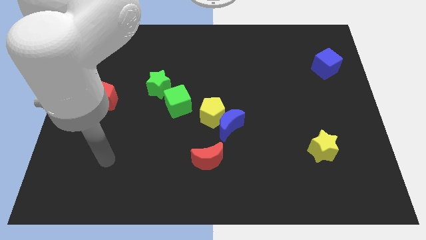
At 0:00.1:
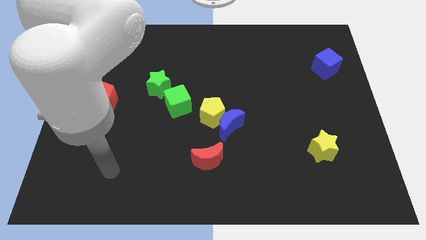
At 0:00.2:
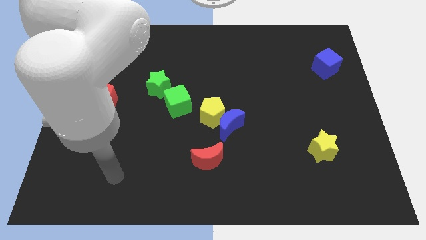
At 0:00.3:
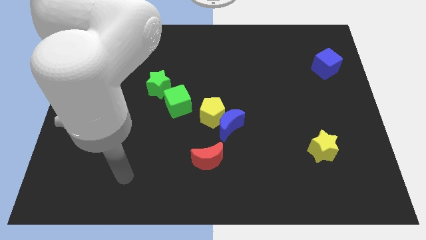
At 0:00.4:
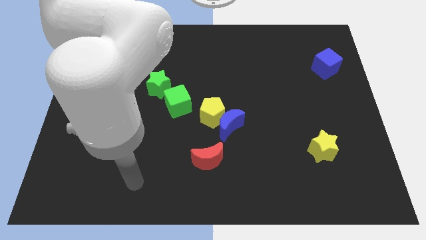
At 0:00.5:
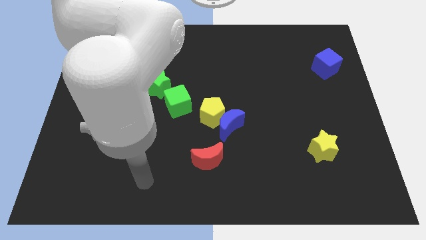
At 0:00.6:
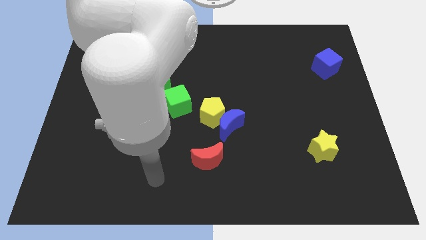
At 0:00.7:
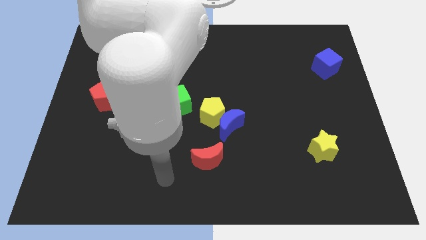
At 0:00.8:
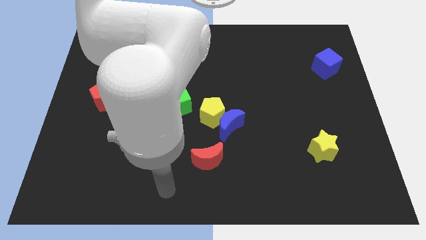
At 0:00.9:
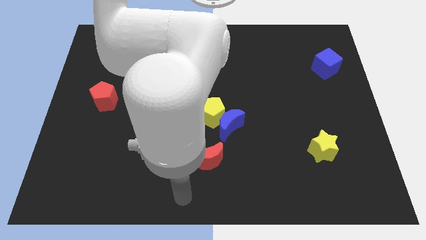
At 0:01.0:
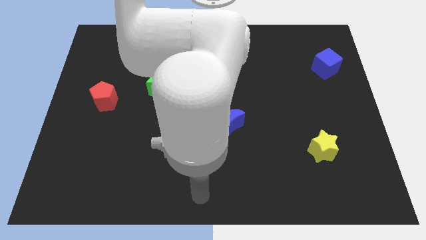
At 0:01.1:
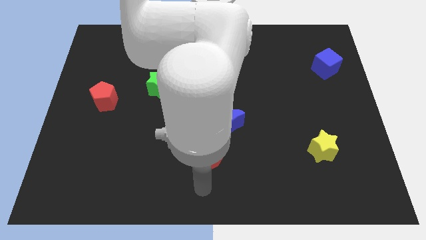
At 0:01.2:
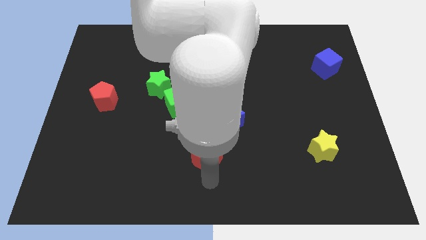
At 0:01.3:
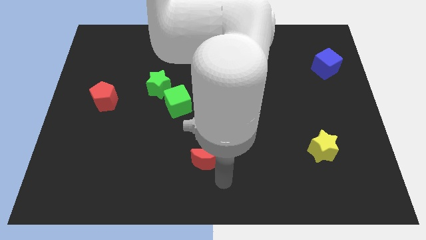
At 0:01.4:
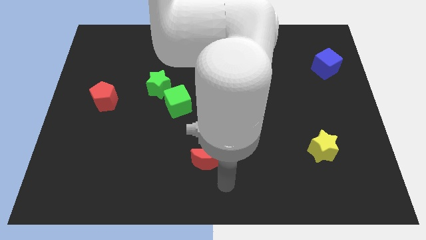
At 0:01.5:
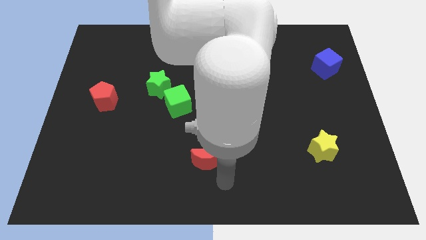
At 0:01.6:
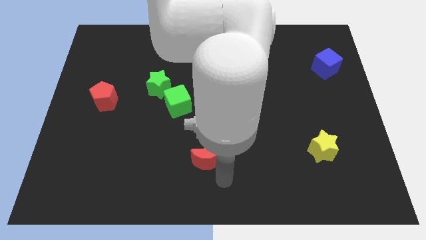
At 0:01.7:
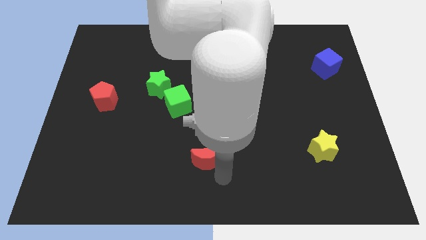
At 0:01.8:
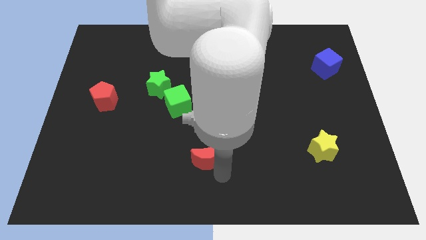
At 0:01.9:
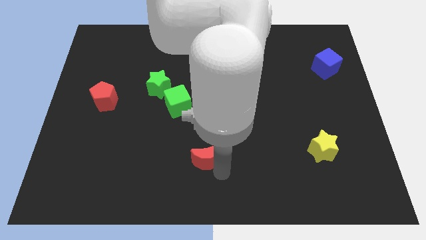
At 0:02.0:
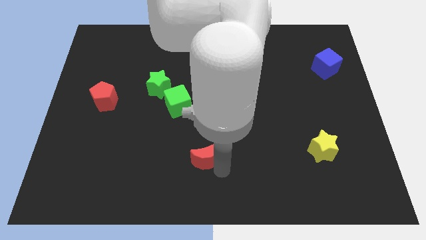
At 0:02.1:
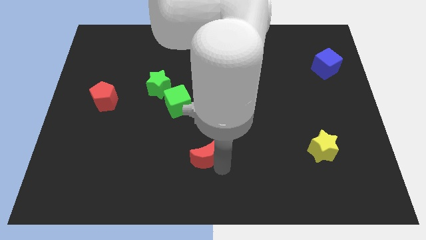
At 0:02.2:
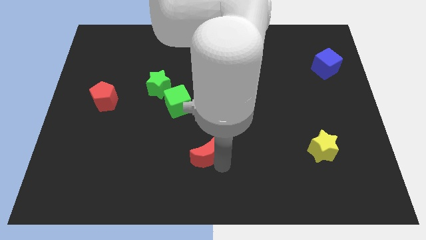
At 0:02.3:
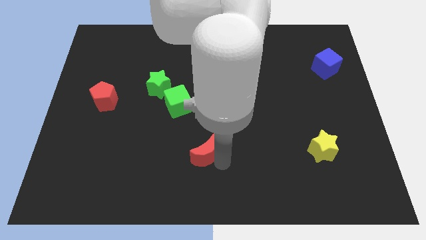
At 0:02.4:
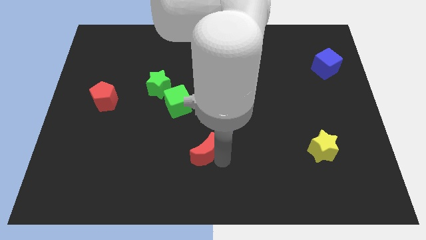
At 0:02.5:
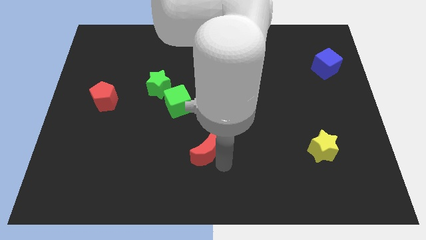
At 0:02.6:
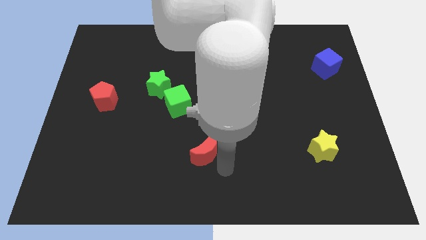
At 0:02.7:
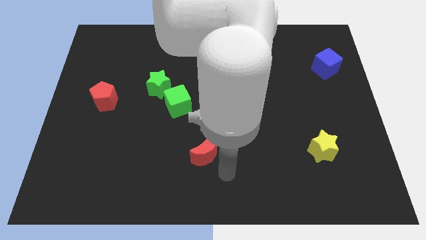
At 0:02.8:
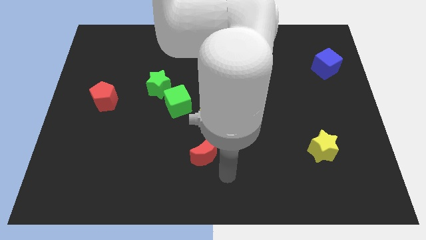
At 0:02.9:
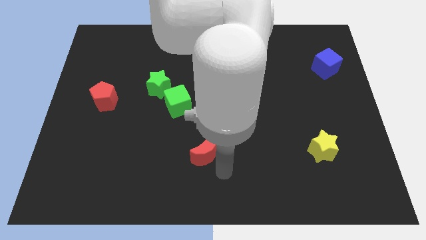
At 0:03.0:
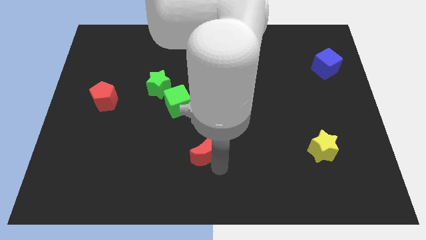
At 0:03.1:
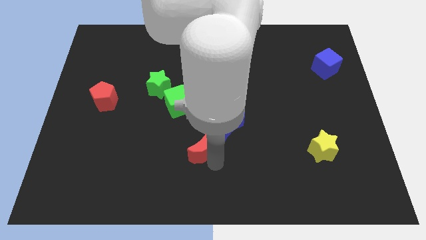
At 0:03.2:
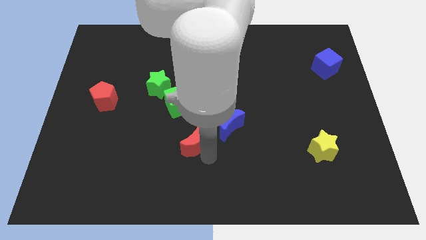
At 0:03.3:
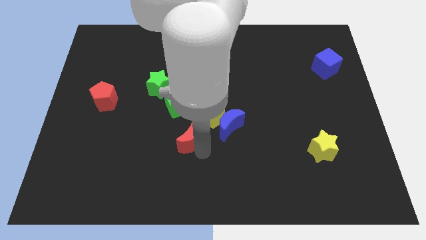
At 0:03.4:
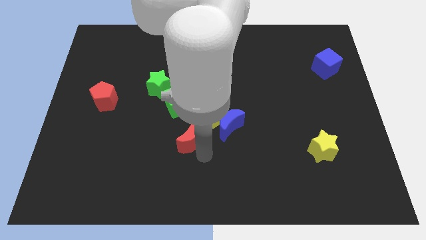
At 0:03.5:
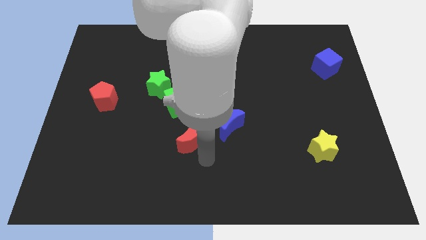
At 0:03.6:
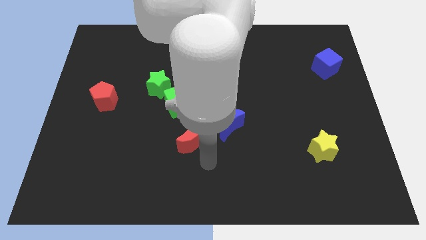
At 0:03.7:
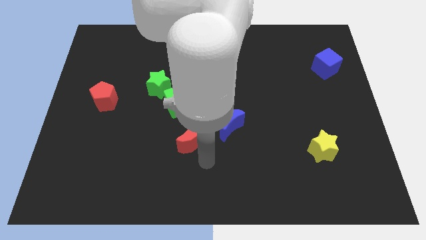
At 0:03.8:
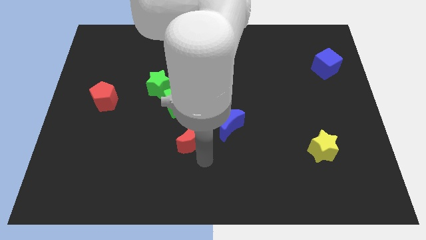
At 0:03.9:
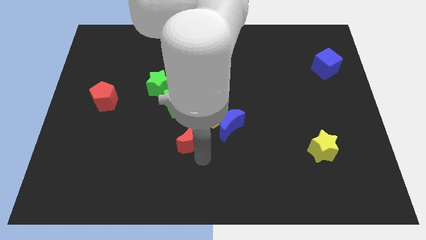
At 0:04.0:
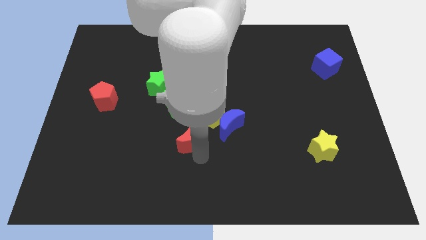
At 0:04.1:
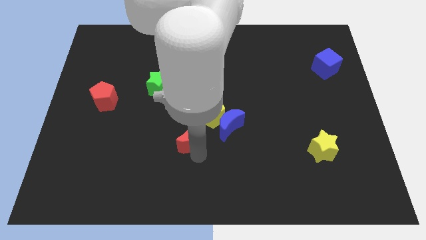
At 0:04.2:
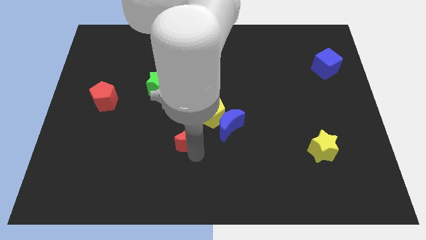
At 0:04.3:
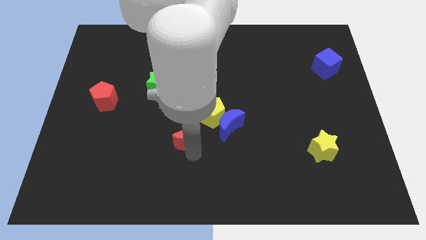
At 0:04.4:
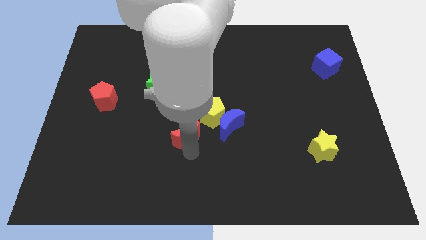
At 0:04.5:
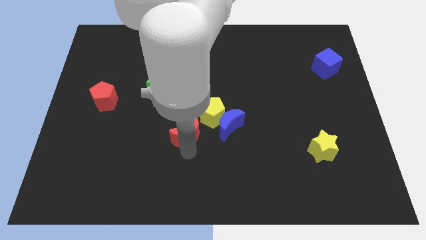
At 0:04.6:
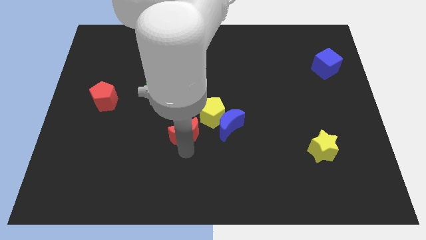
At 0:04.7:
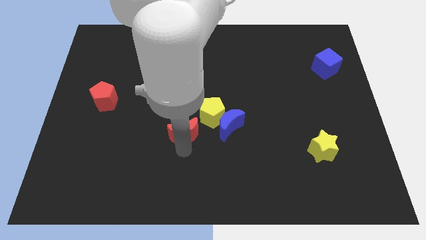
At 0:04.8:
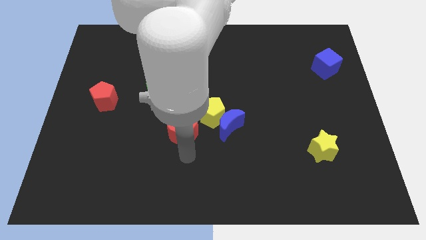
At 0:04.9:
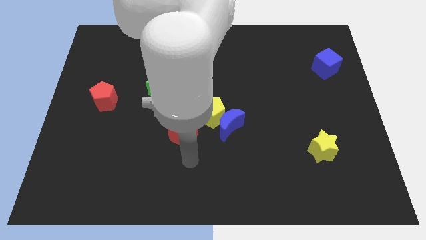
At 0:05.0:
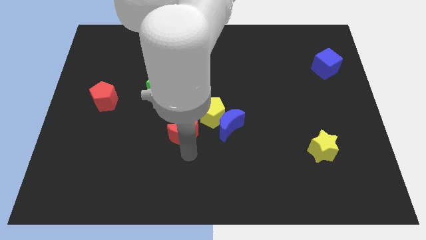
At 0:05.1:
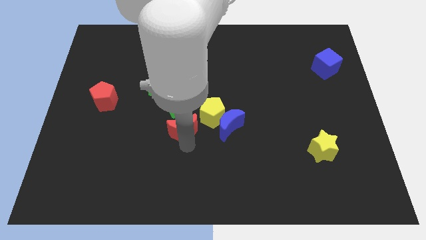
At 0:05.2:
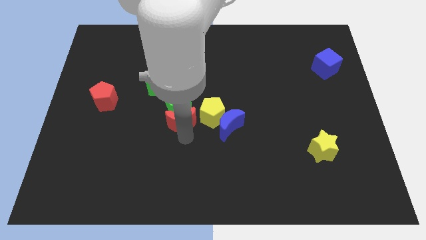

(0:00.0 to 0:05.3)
slide the red moon to the green cube

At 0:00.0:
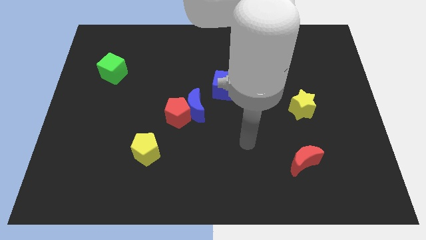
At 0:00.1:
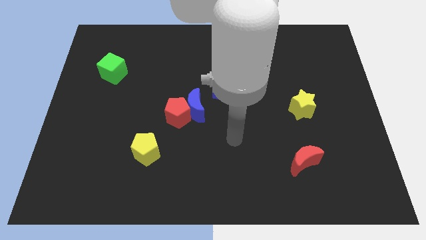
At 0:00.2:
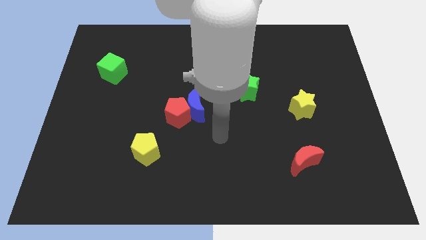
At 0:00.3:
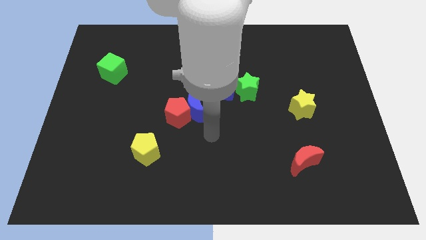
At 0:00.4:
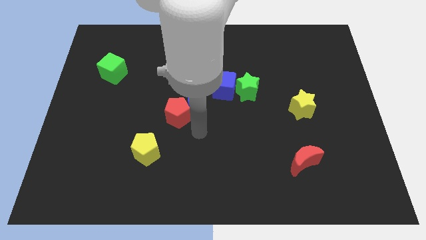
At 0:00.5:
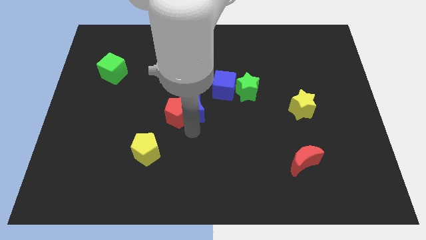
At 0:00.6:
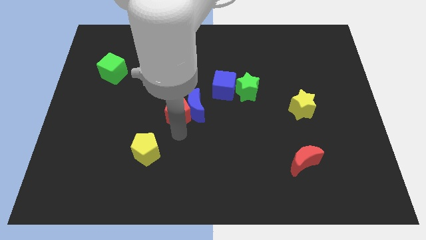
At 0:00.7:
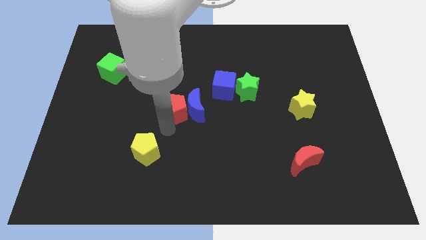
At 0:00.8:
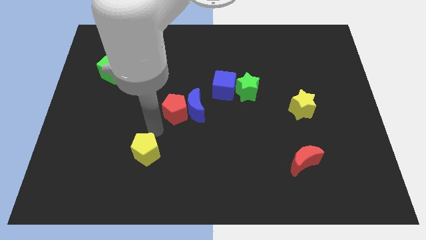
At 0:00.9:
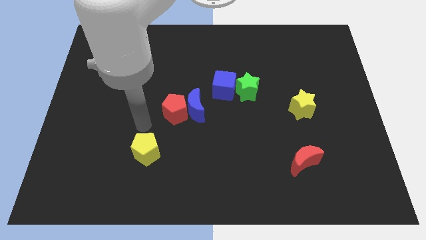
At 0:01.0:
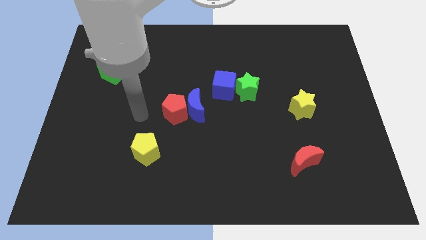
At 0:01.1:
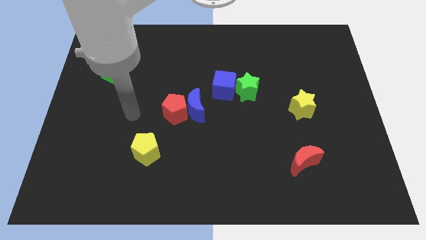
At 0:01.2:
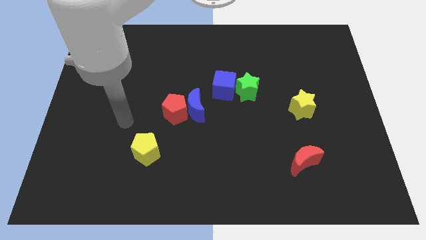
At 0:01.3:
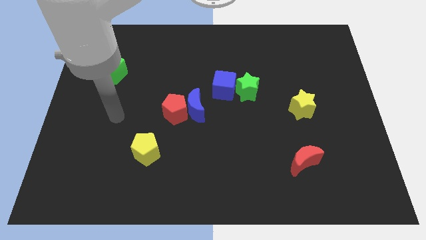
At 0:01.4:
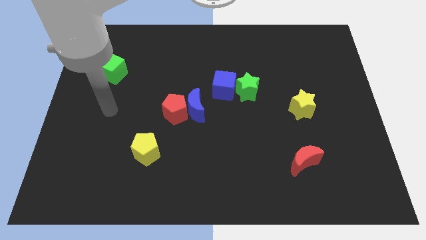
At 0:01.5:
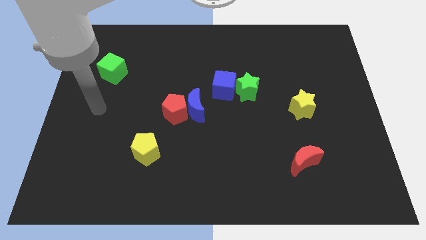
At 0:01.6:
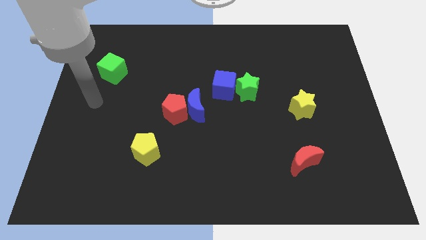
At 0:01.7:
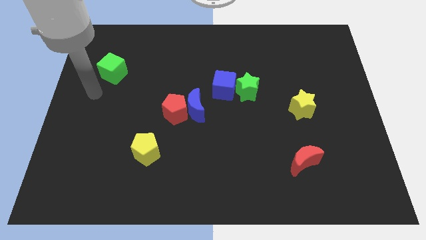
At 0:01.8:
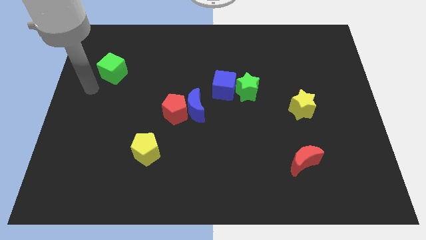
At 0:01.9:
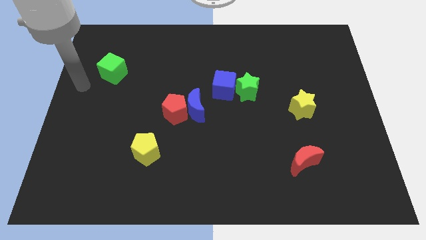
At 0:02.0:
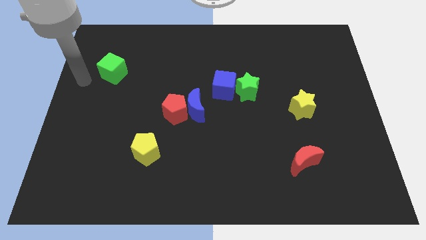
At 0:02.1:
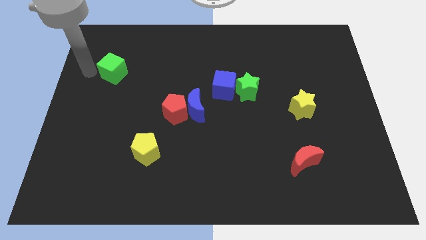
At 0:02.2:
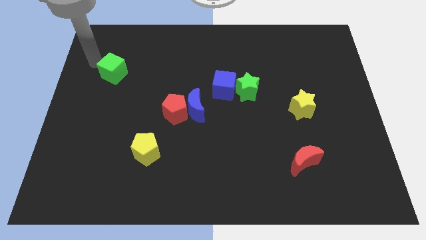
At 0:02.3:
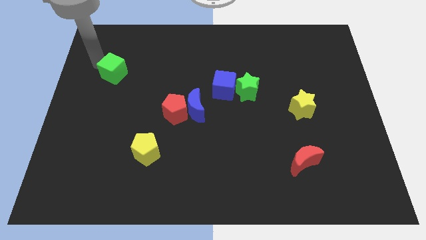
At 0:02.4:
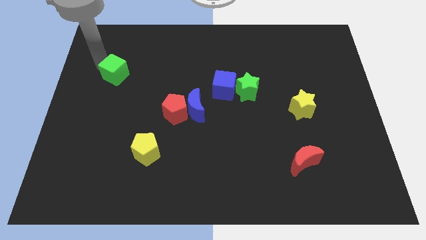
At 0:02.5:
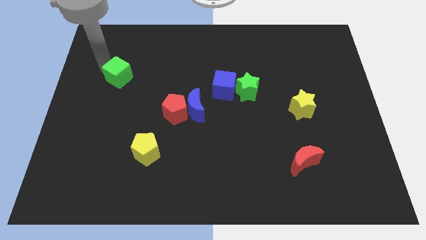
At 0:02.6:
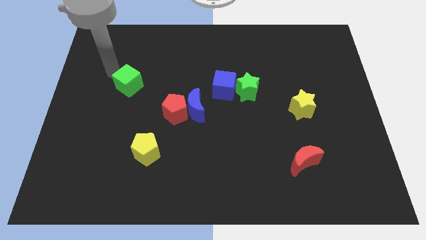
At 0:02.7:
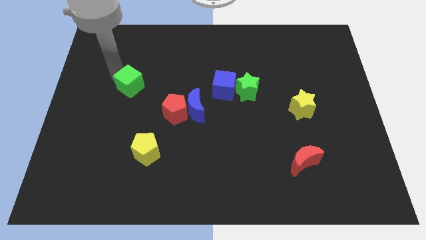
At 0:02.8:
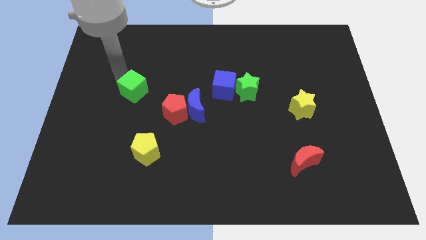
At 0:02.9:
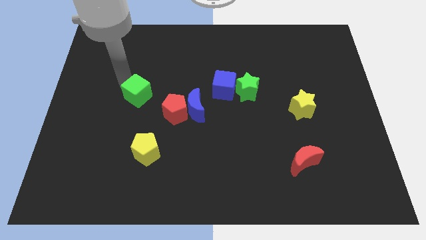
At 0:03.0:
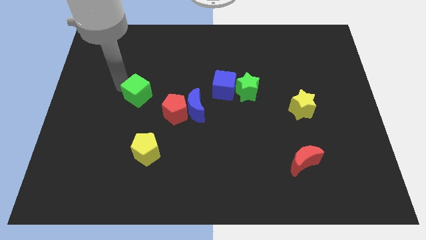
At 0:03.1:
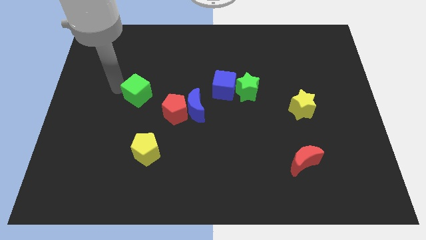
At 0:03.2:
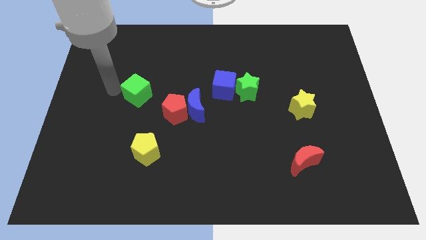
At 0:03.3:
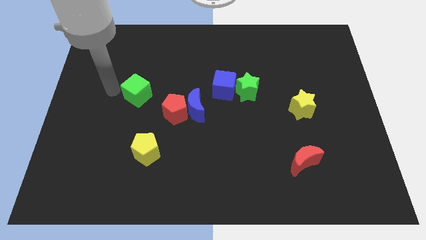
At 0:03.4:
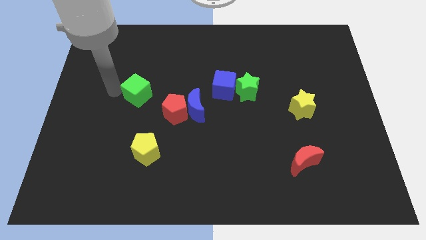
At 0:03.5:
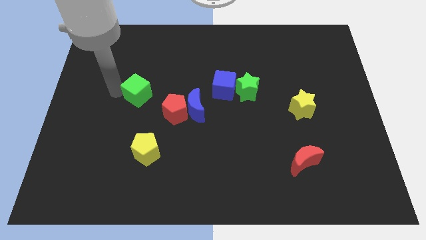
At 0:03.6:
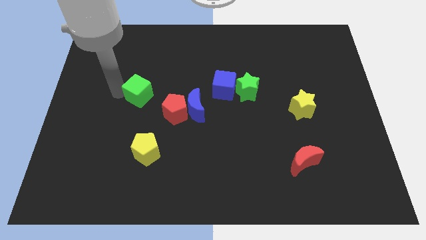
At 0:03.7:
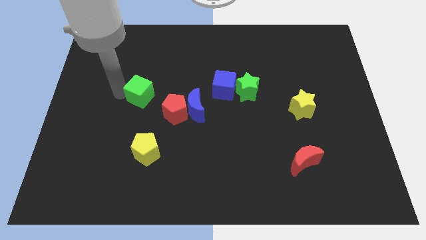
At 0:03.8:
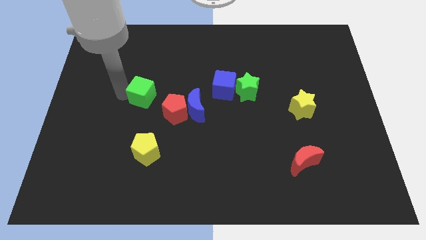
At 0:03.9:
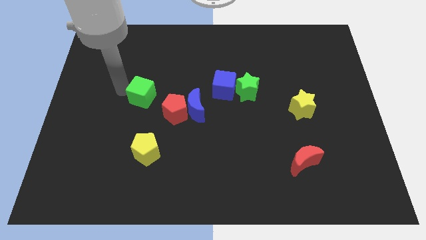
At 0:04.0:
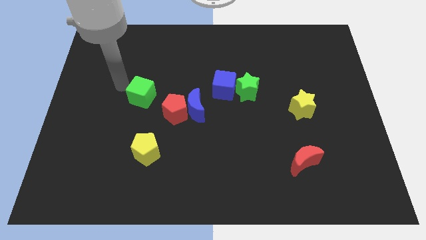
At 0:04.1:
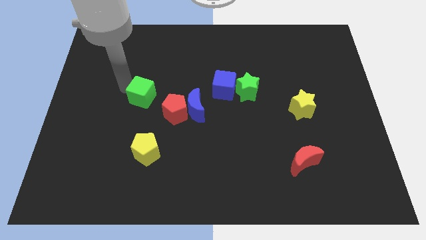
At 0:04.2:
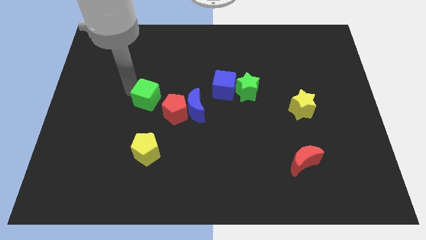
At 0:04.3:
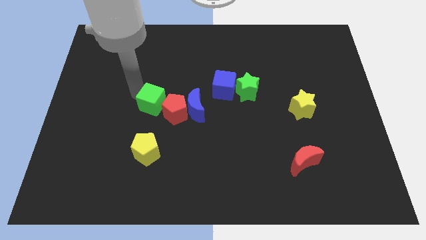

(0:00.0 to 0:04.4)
slide the green cube next to the red pentagon
